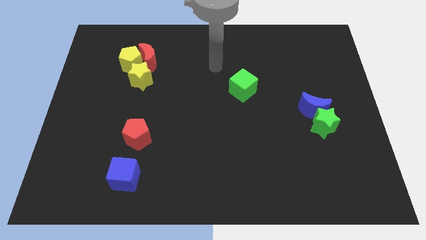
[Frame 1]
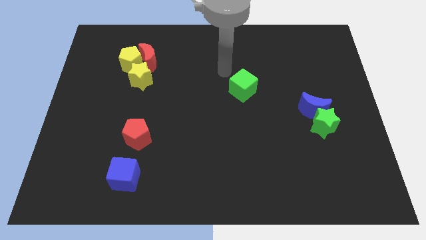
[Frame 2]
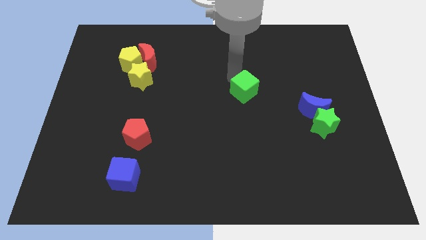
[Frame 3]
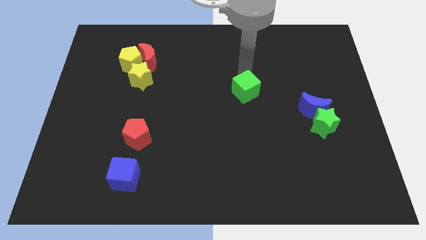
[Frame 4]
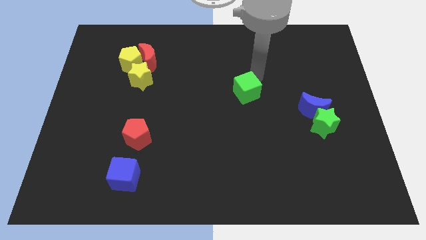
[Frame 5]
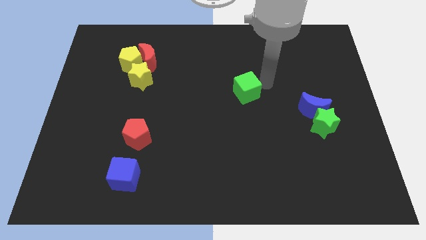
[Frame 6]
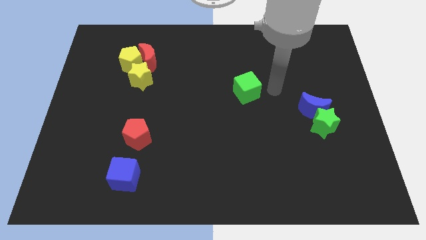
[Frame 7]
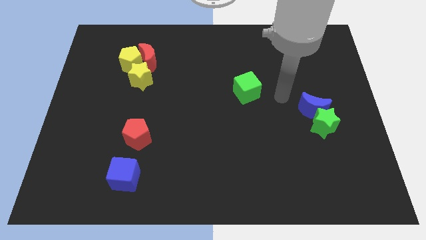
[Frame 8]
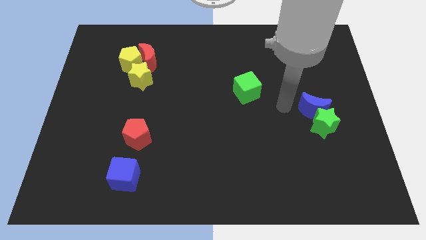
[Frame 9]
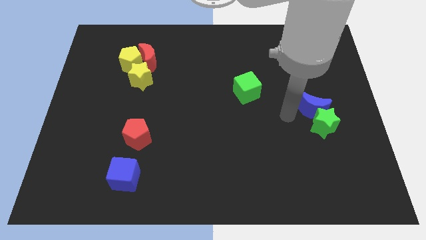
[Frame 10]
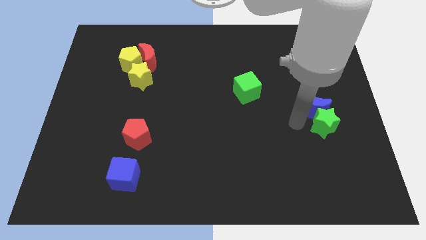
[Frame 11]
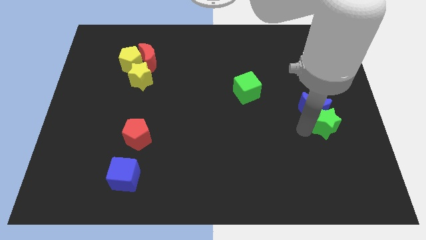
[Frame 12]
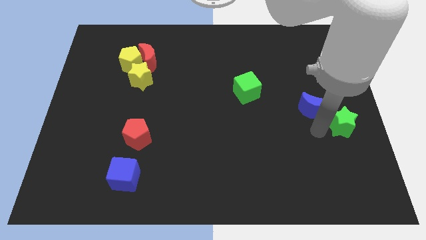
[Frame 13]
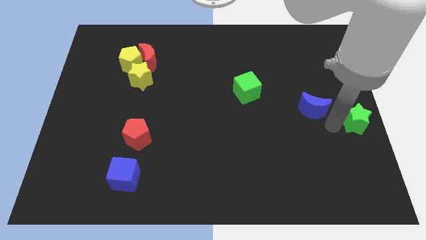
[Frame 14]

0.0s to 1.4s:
move the blue moon away from the green star

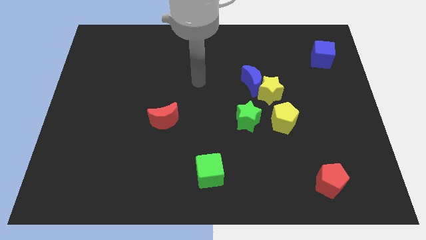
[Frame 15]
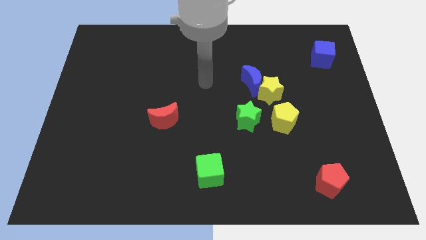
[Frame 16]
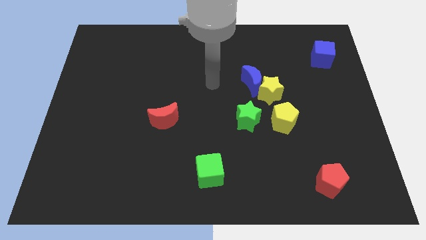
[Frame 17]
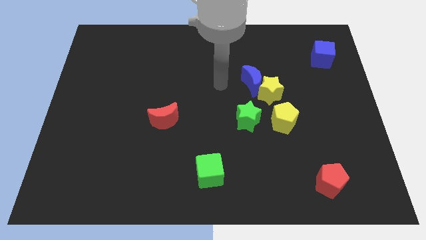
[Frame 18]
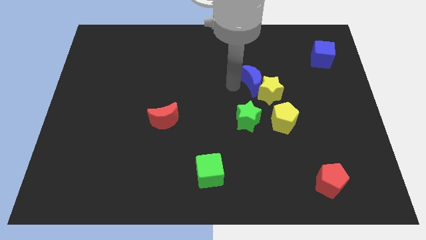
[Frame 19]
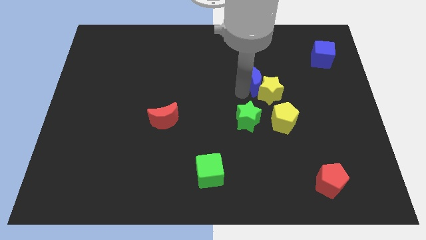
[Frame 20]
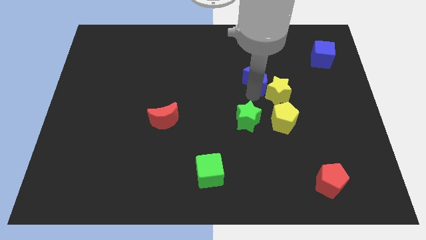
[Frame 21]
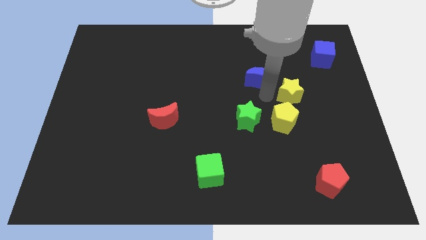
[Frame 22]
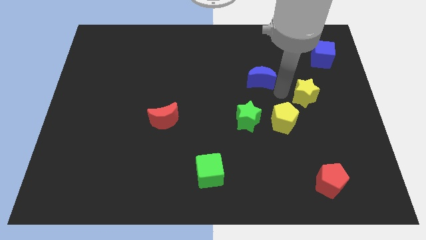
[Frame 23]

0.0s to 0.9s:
pull the blue moon apart from the yellow star

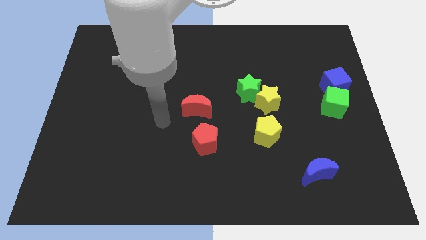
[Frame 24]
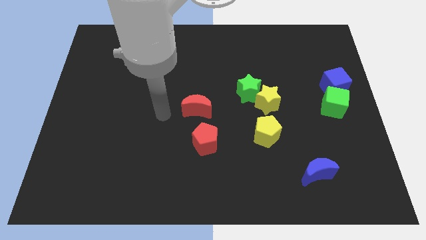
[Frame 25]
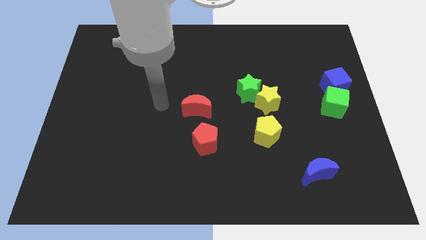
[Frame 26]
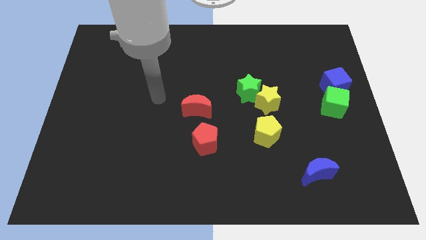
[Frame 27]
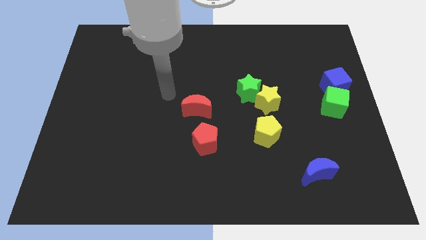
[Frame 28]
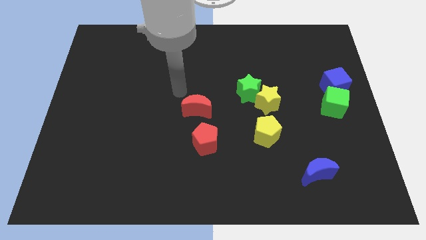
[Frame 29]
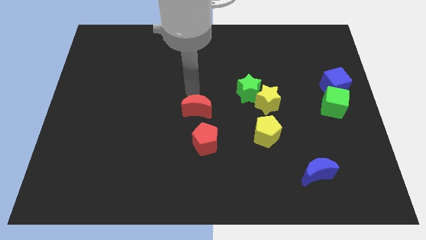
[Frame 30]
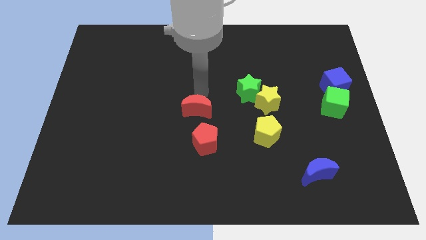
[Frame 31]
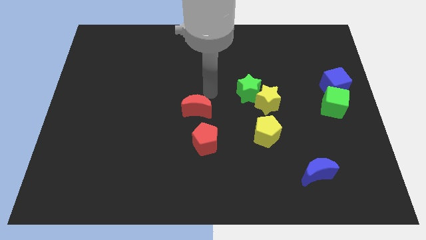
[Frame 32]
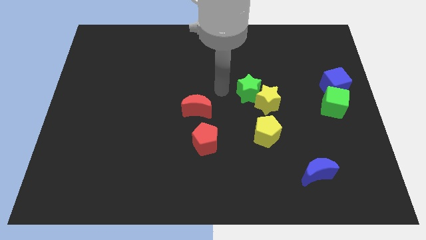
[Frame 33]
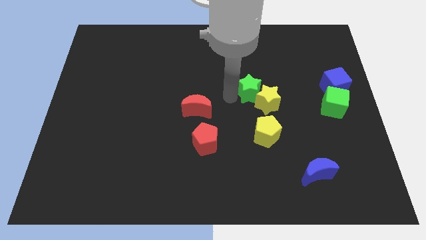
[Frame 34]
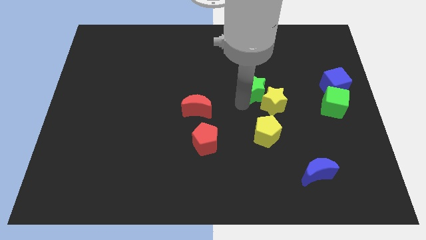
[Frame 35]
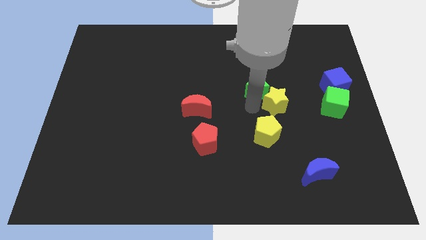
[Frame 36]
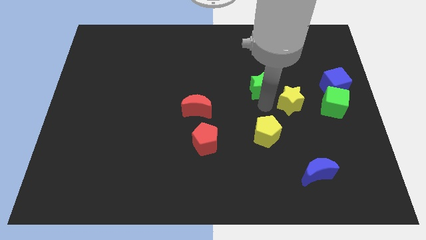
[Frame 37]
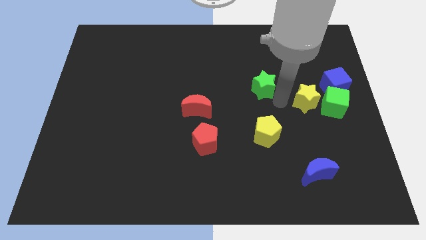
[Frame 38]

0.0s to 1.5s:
separate the green star from the yellow star

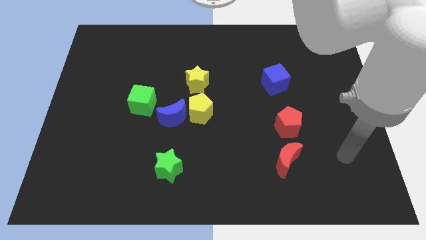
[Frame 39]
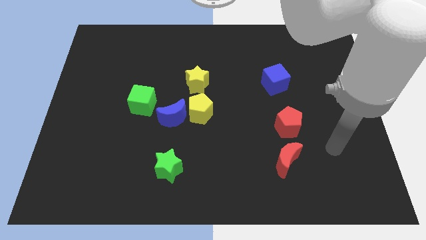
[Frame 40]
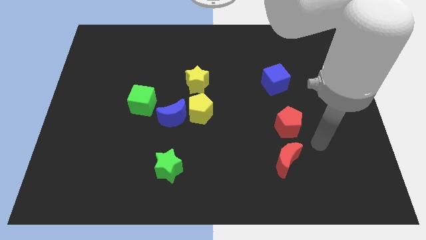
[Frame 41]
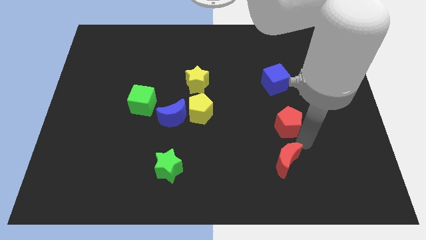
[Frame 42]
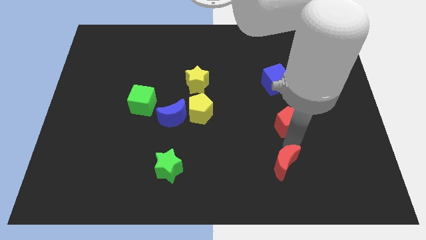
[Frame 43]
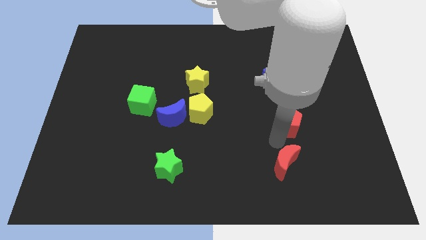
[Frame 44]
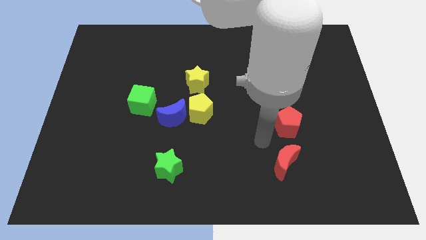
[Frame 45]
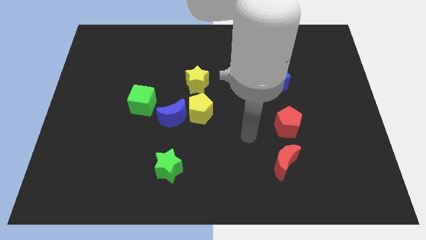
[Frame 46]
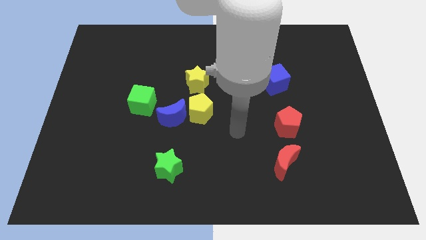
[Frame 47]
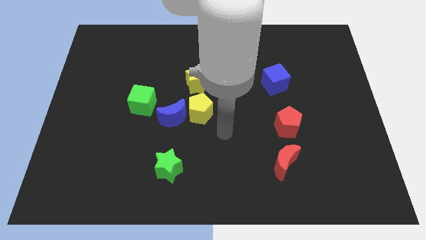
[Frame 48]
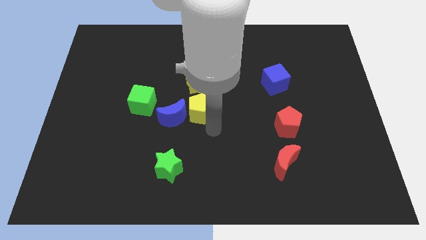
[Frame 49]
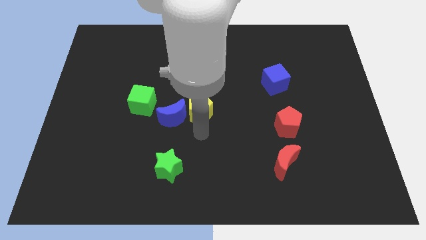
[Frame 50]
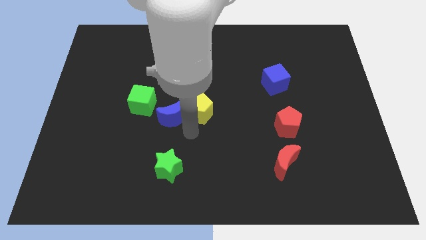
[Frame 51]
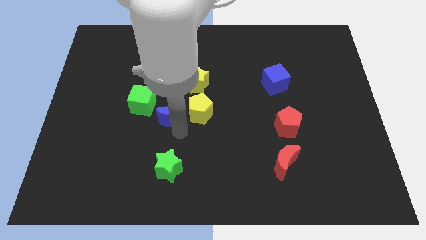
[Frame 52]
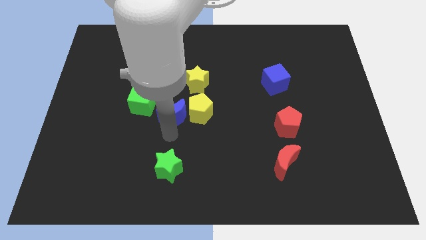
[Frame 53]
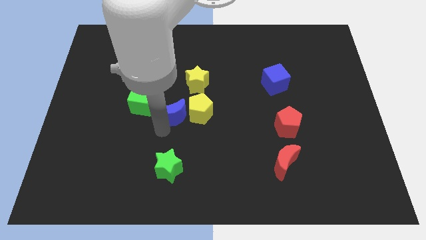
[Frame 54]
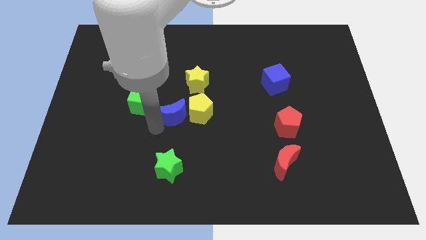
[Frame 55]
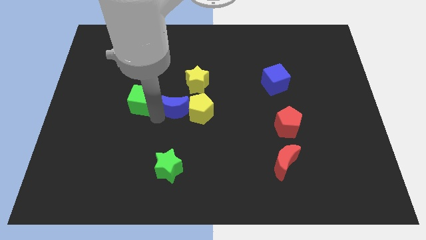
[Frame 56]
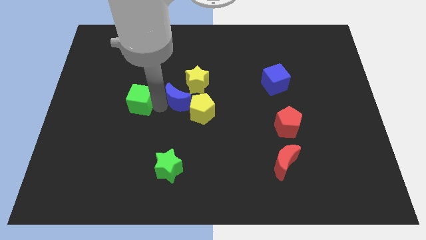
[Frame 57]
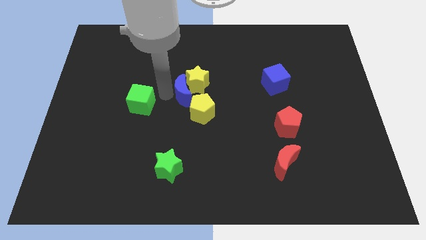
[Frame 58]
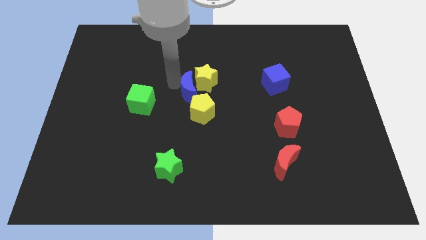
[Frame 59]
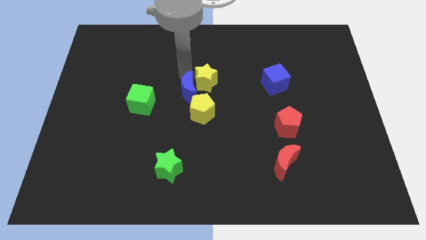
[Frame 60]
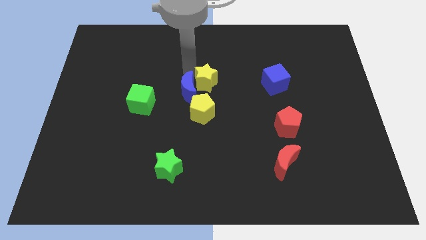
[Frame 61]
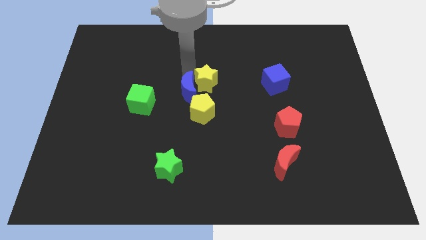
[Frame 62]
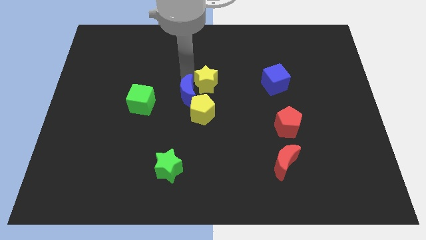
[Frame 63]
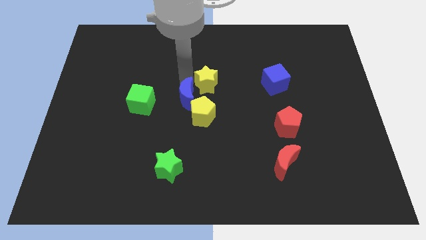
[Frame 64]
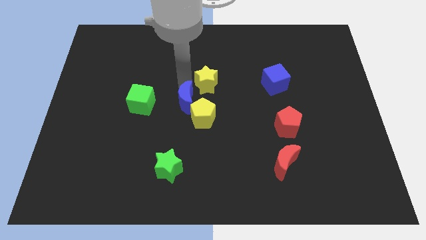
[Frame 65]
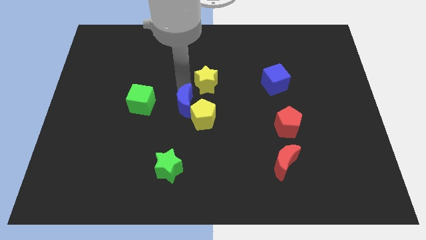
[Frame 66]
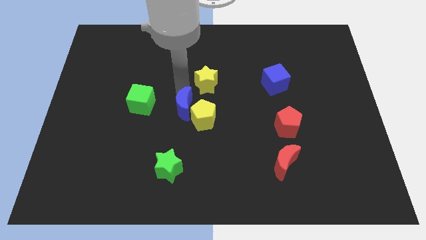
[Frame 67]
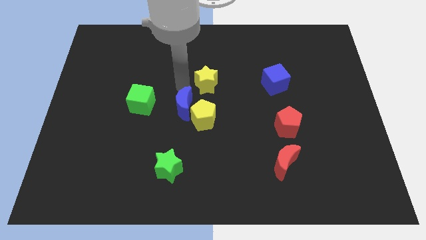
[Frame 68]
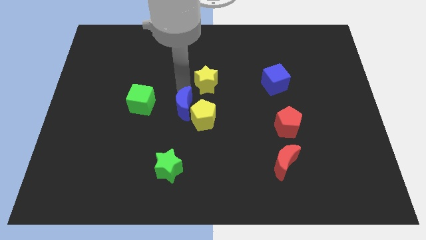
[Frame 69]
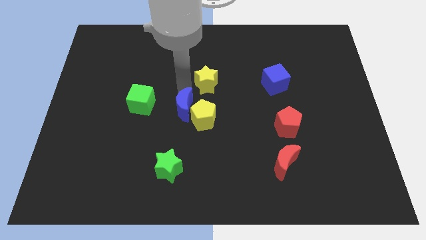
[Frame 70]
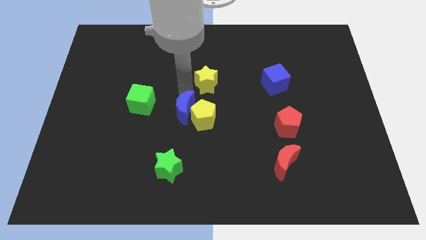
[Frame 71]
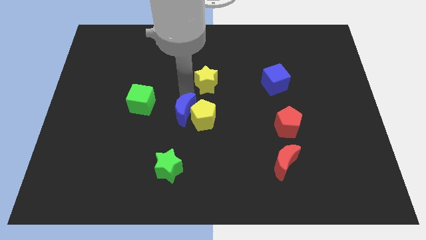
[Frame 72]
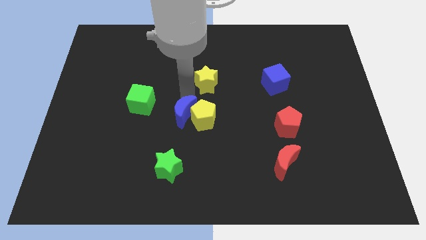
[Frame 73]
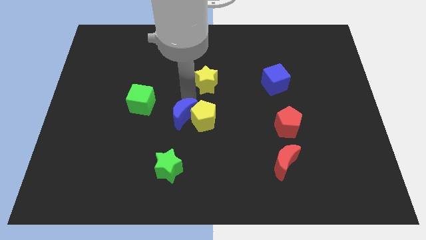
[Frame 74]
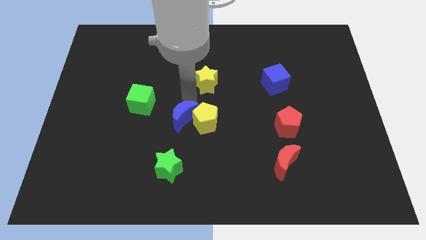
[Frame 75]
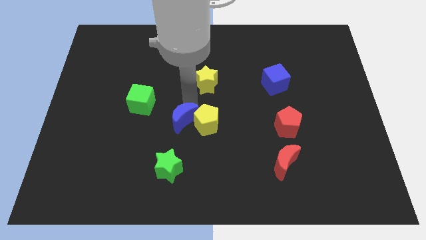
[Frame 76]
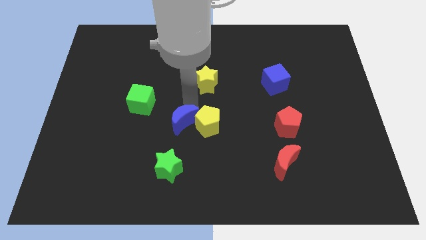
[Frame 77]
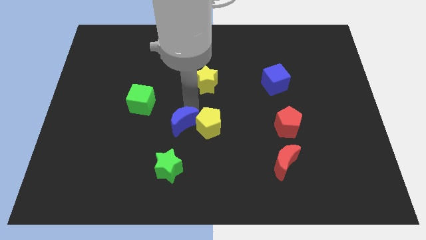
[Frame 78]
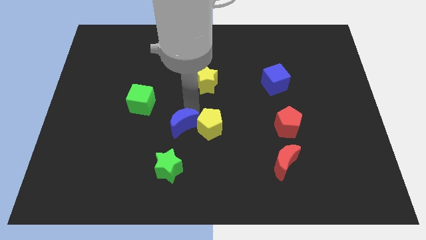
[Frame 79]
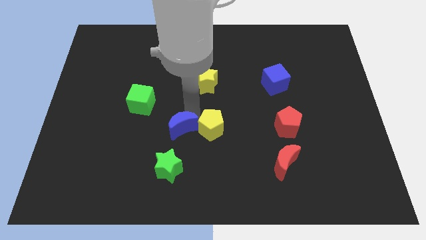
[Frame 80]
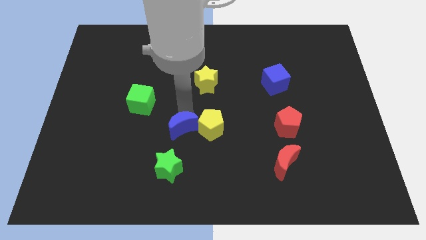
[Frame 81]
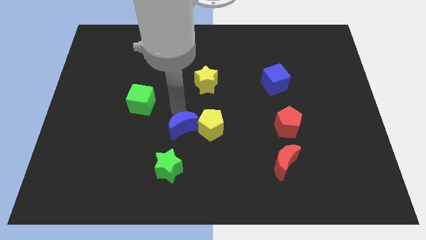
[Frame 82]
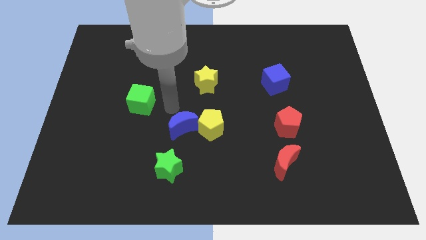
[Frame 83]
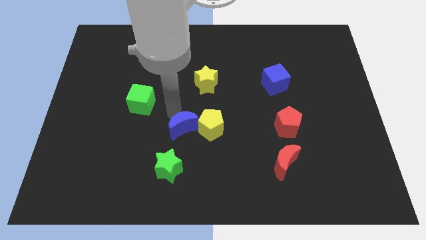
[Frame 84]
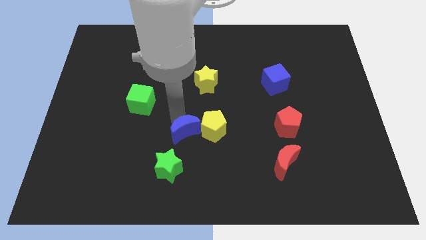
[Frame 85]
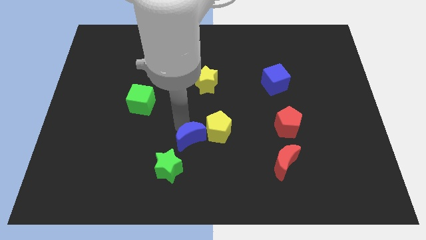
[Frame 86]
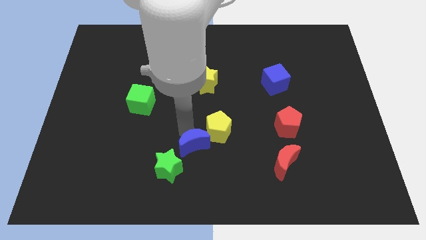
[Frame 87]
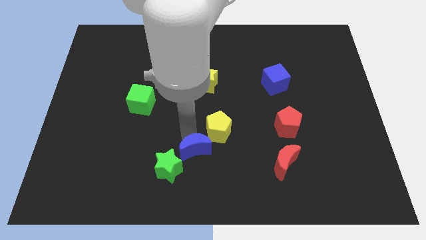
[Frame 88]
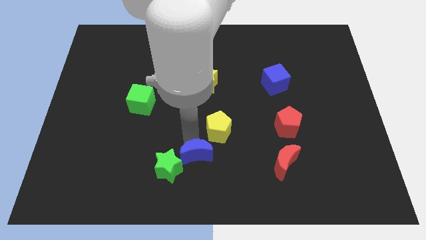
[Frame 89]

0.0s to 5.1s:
separate the blue moon from the yellow pentagon and green cube

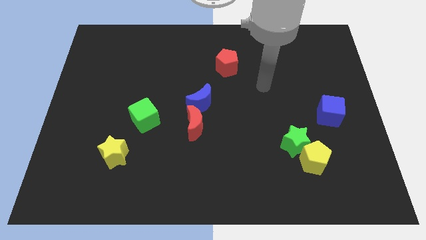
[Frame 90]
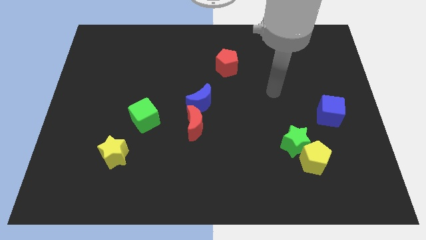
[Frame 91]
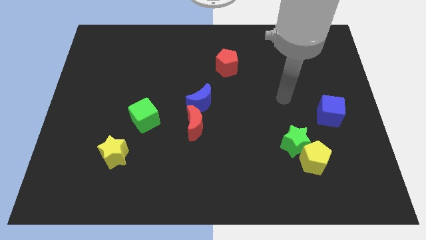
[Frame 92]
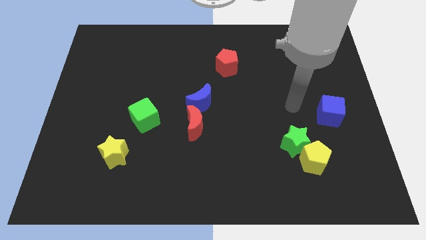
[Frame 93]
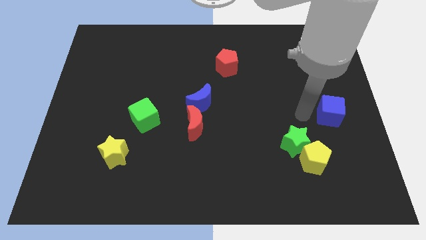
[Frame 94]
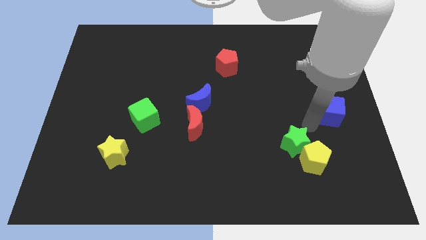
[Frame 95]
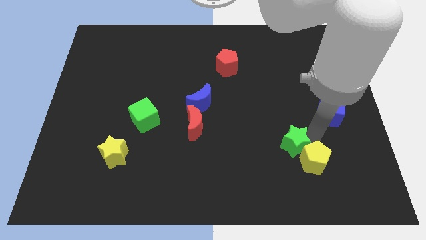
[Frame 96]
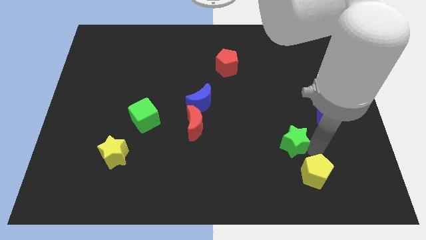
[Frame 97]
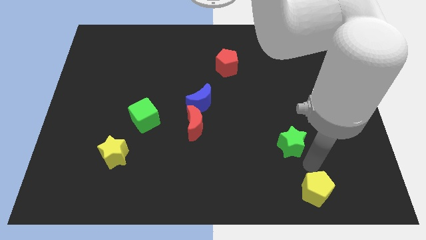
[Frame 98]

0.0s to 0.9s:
move the green star away from the yellow pentagon
